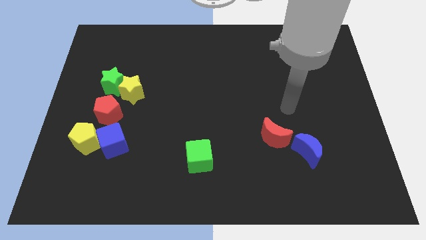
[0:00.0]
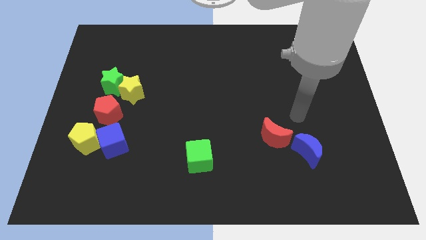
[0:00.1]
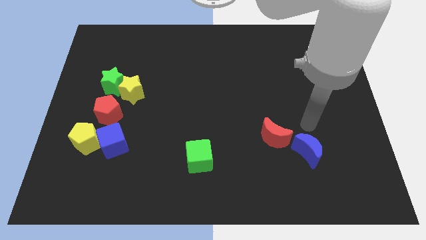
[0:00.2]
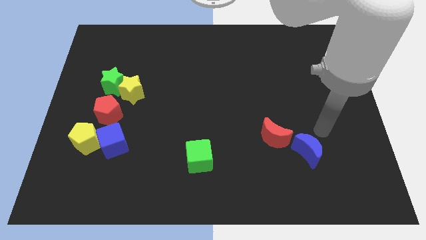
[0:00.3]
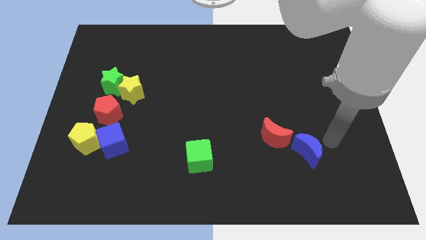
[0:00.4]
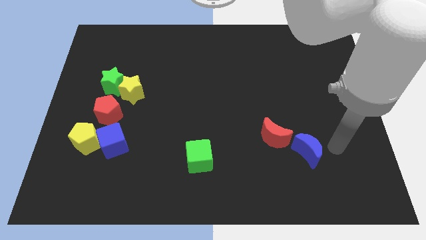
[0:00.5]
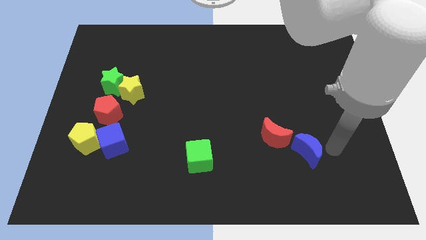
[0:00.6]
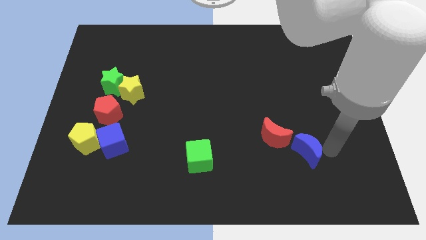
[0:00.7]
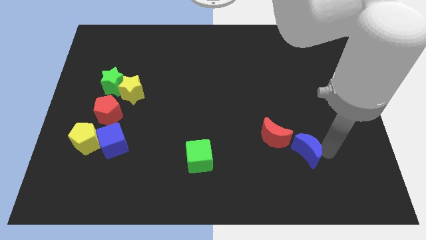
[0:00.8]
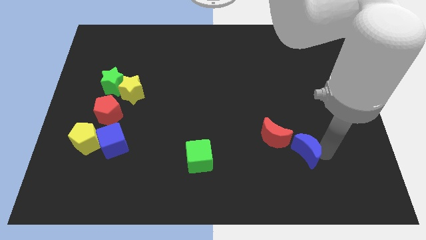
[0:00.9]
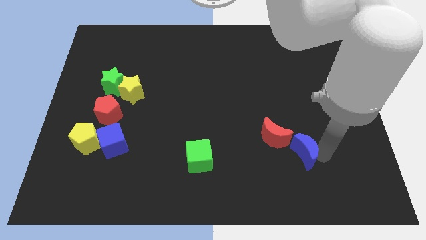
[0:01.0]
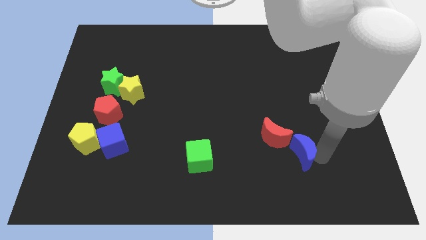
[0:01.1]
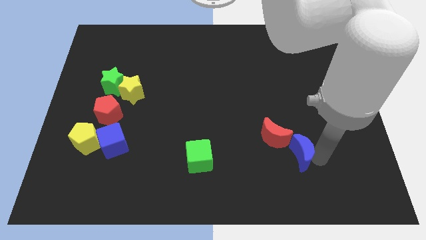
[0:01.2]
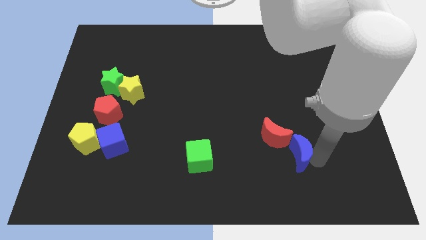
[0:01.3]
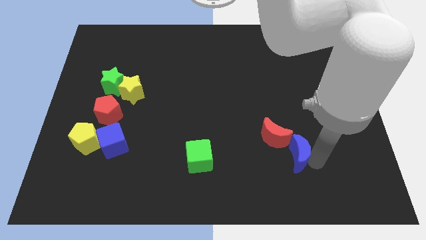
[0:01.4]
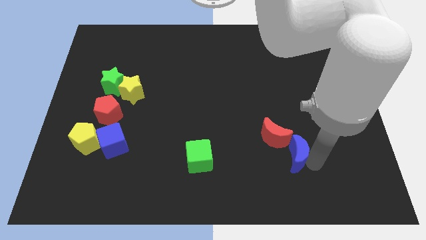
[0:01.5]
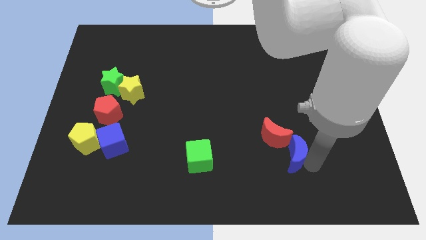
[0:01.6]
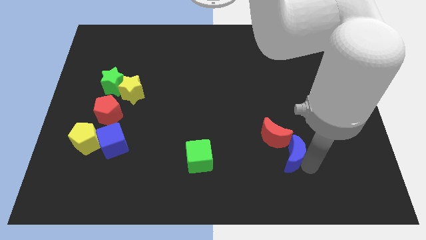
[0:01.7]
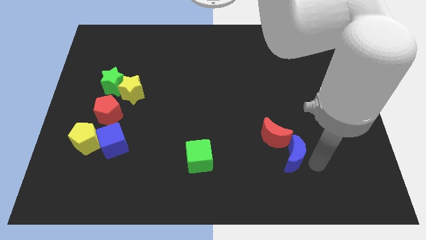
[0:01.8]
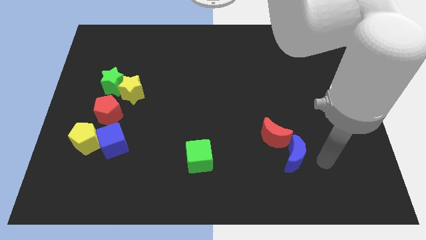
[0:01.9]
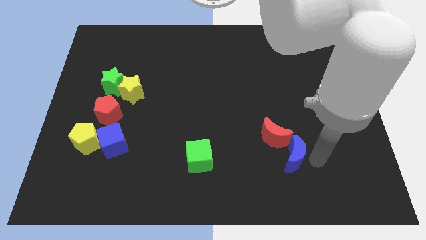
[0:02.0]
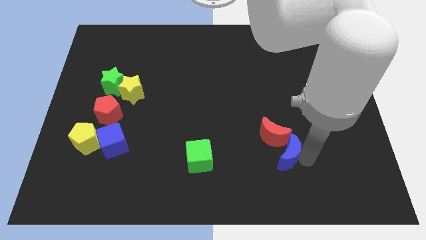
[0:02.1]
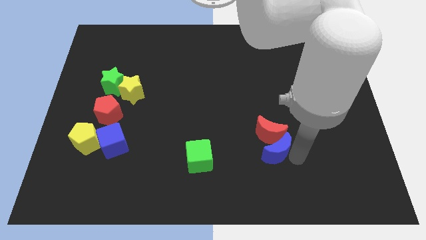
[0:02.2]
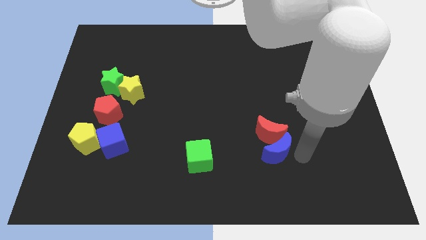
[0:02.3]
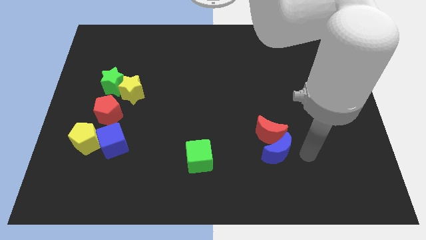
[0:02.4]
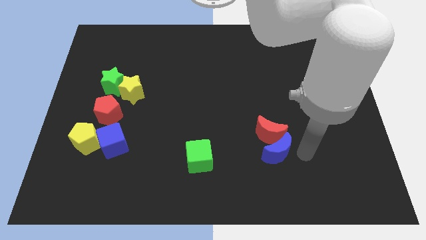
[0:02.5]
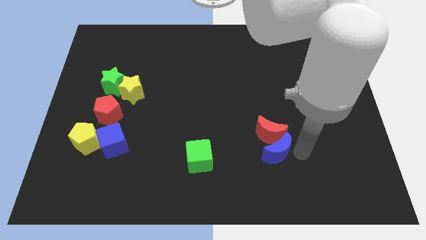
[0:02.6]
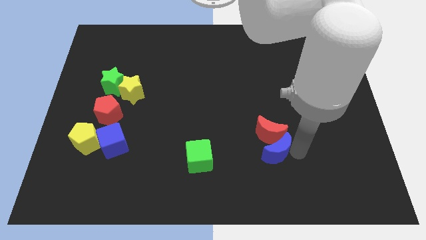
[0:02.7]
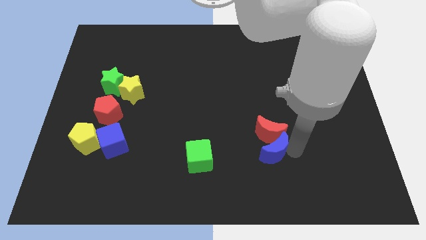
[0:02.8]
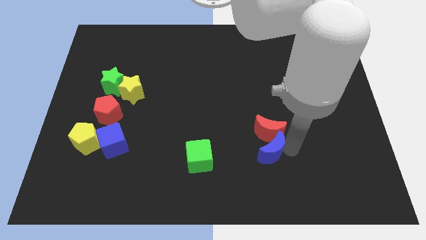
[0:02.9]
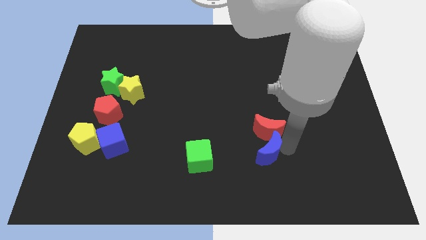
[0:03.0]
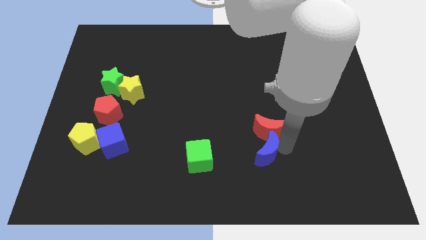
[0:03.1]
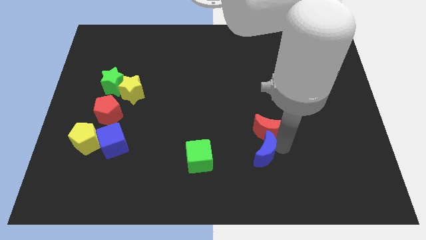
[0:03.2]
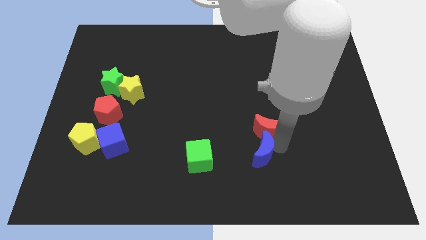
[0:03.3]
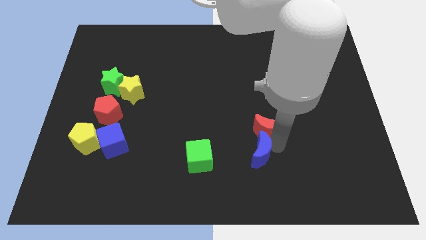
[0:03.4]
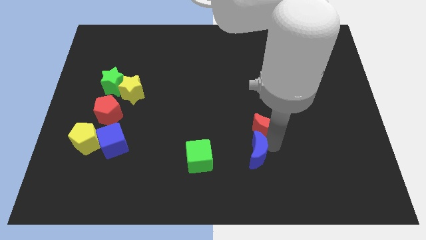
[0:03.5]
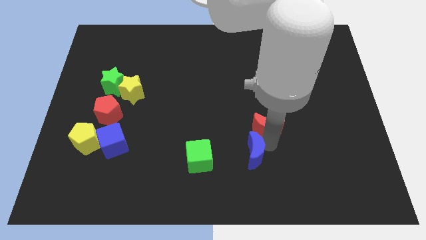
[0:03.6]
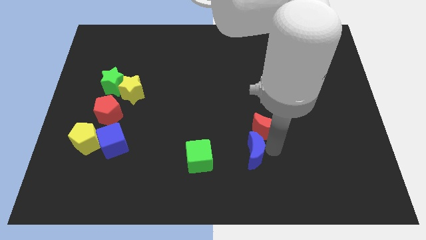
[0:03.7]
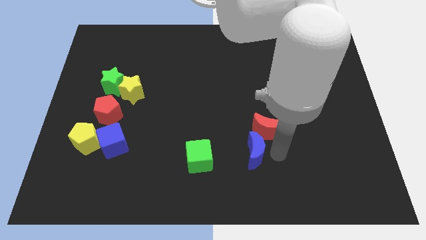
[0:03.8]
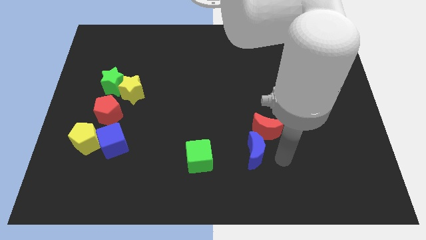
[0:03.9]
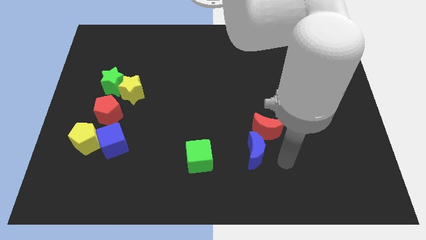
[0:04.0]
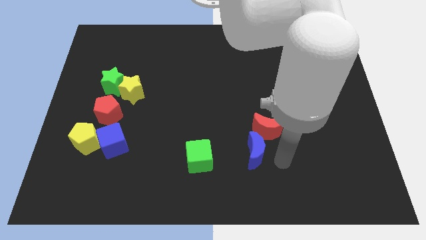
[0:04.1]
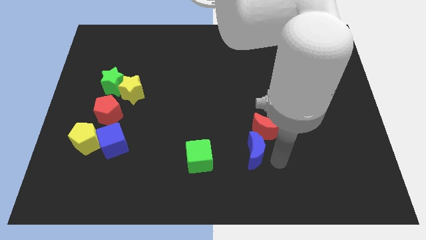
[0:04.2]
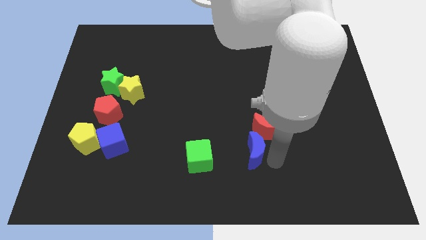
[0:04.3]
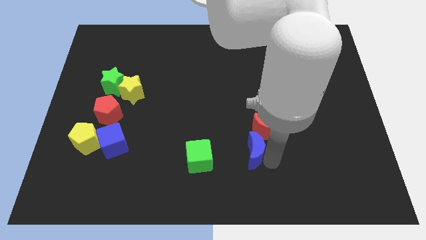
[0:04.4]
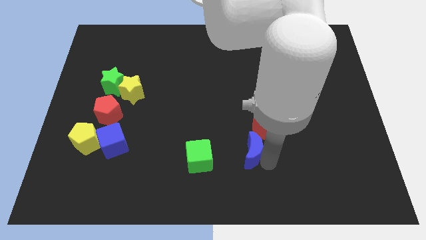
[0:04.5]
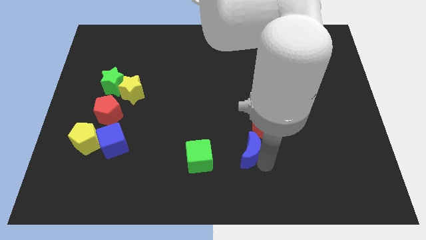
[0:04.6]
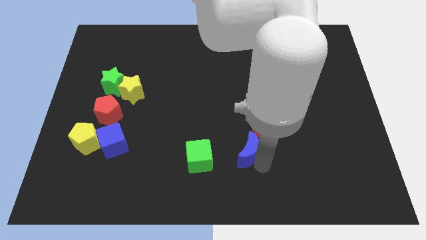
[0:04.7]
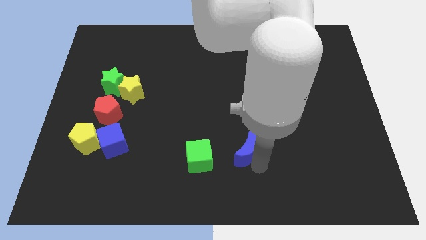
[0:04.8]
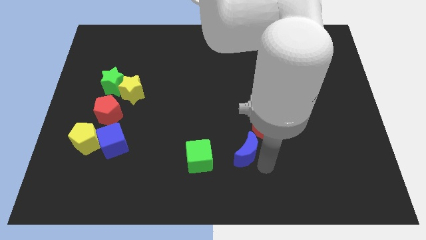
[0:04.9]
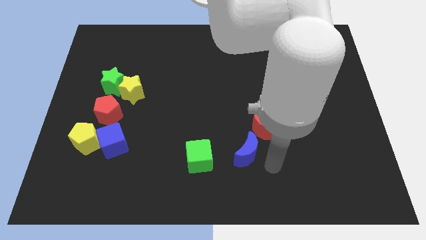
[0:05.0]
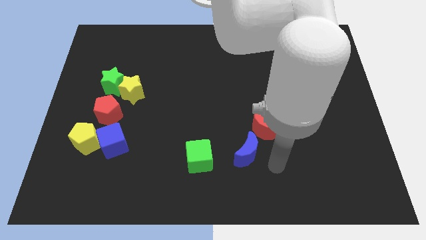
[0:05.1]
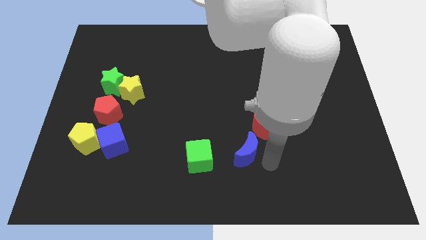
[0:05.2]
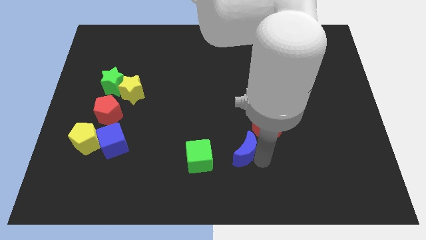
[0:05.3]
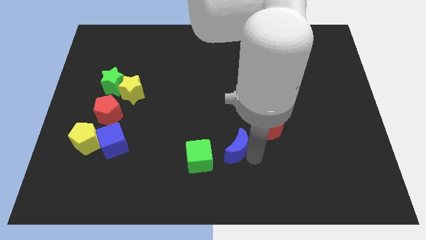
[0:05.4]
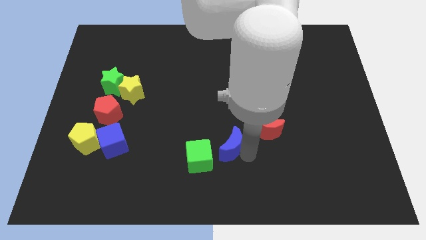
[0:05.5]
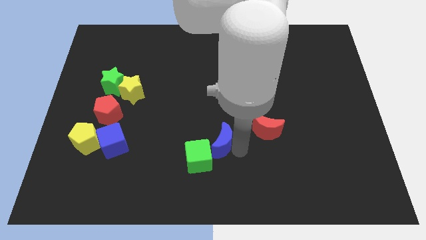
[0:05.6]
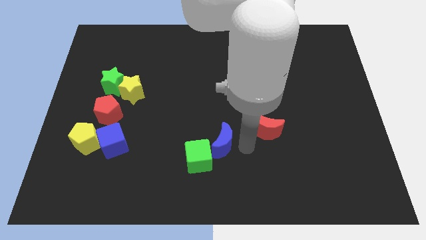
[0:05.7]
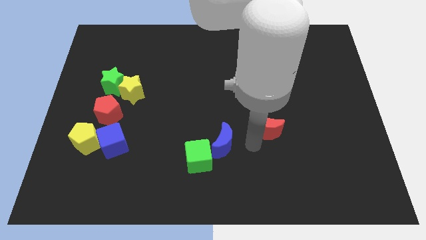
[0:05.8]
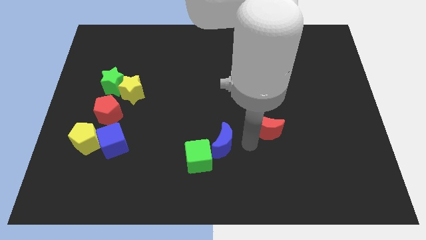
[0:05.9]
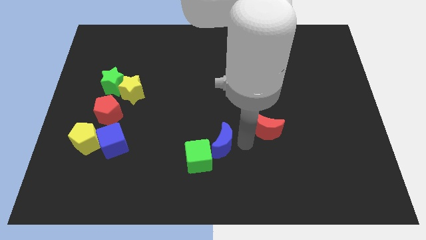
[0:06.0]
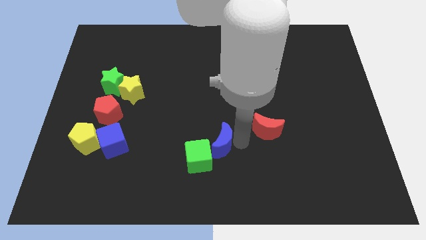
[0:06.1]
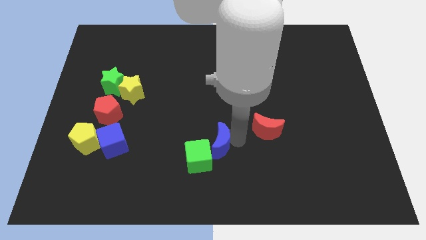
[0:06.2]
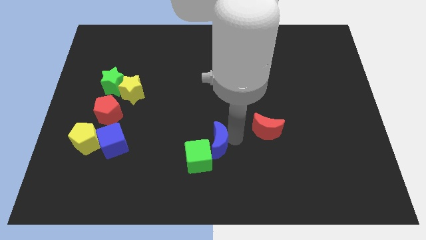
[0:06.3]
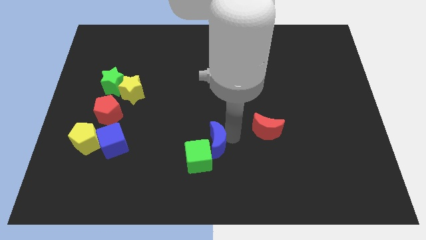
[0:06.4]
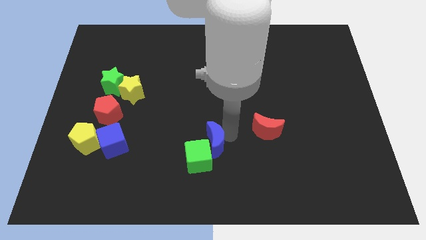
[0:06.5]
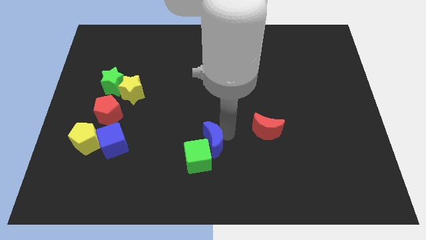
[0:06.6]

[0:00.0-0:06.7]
slide the blue moon to the left

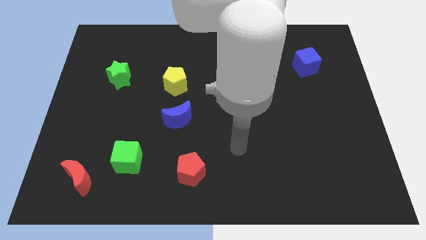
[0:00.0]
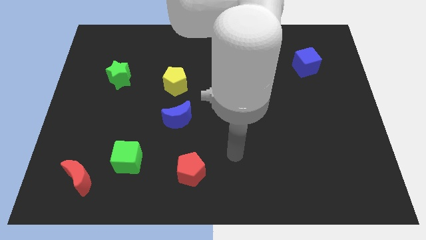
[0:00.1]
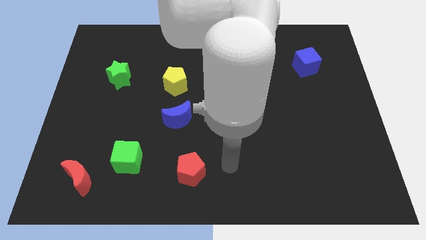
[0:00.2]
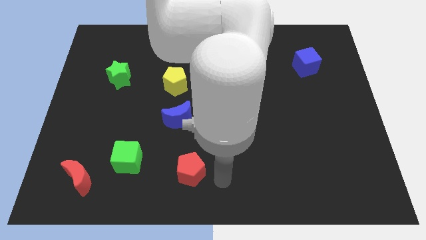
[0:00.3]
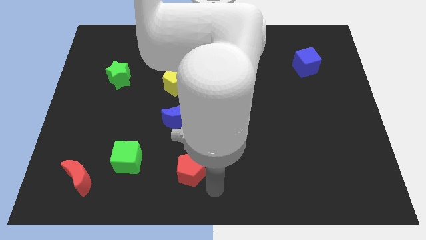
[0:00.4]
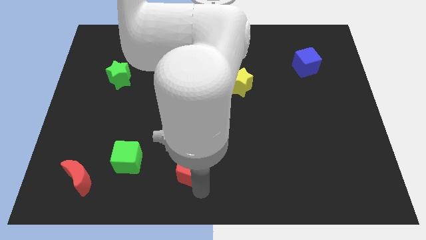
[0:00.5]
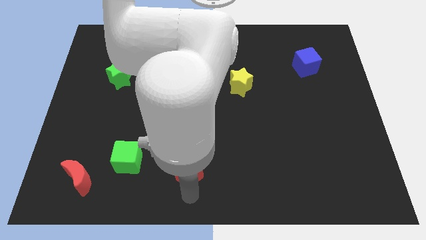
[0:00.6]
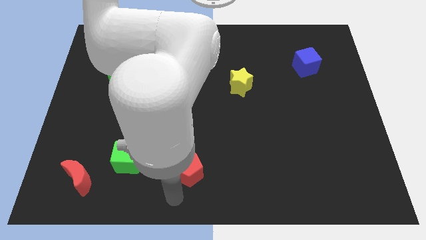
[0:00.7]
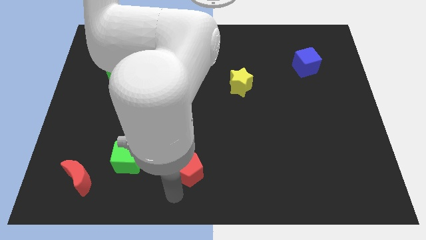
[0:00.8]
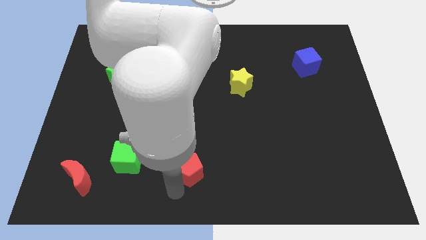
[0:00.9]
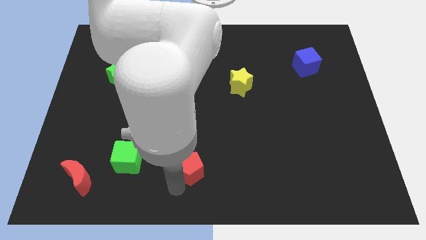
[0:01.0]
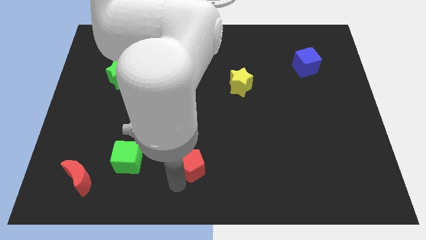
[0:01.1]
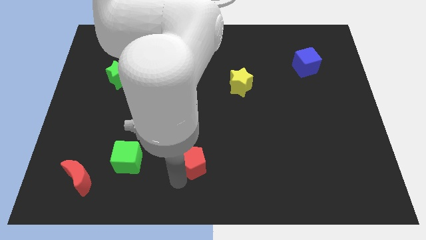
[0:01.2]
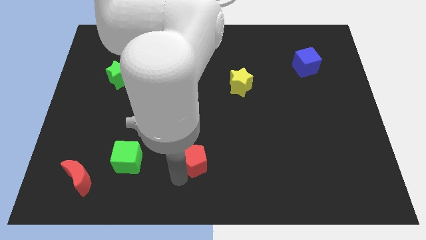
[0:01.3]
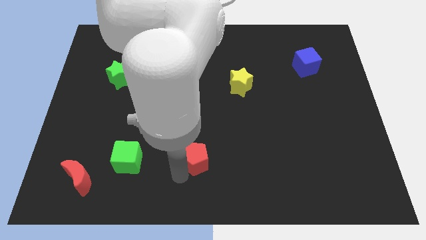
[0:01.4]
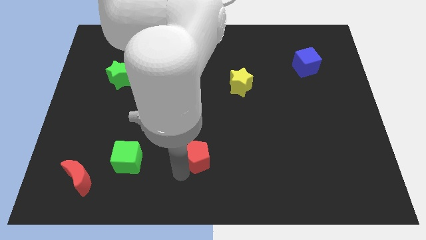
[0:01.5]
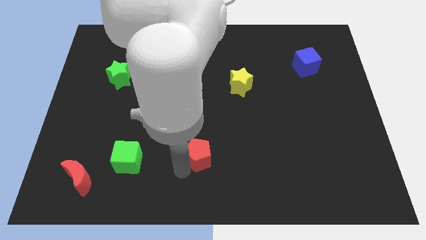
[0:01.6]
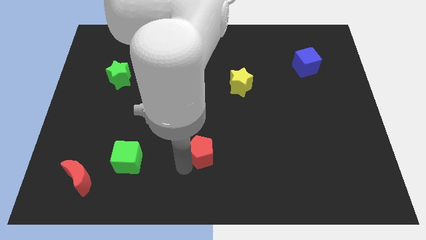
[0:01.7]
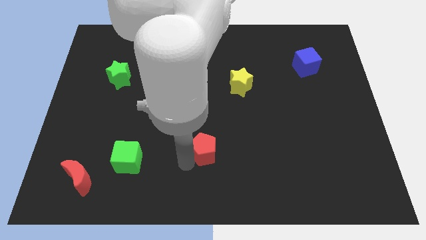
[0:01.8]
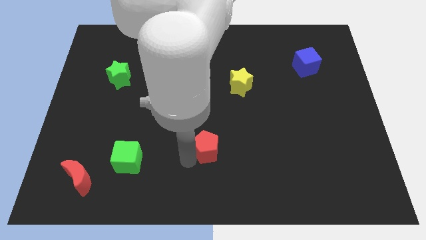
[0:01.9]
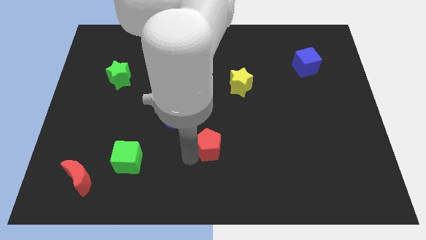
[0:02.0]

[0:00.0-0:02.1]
slightly slide the red pentagon upwards and right diagonally
